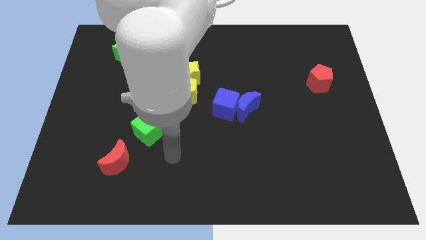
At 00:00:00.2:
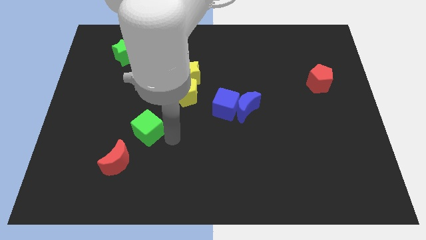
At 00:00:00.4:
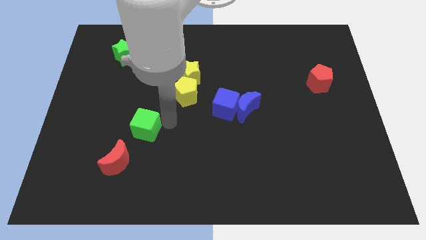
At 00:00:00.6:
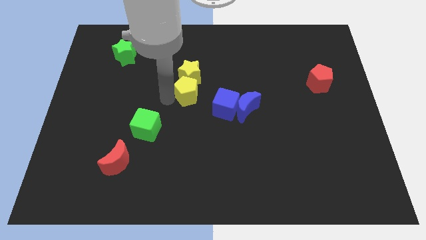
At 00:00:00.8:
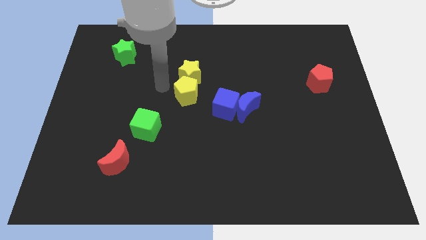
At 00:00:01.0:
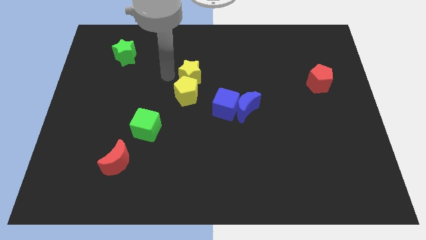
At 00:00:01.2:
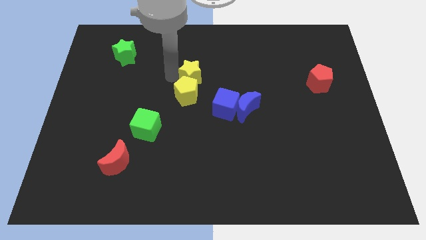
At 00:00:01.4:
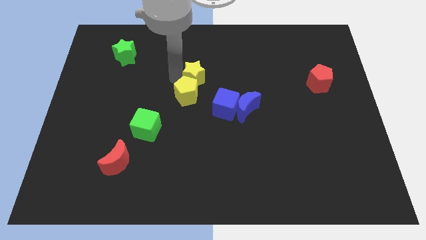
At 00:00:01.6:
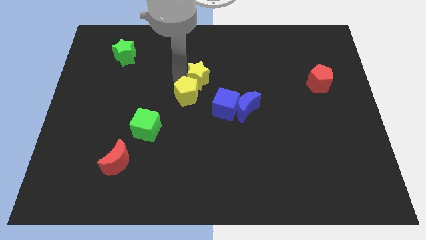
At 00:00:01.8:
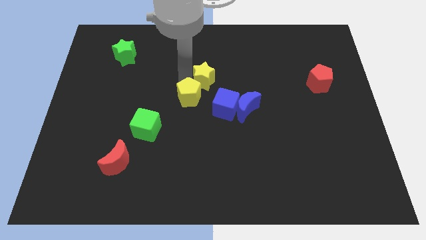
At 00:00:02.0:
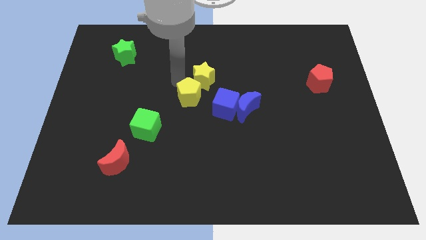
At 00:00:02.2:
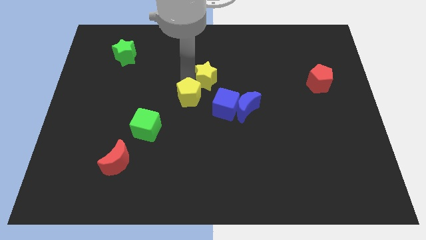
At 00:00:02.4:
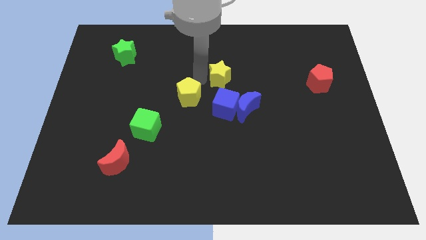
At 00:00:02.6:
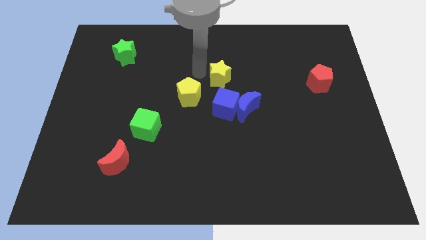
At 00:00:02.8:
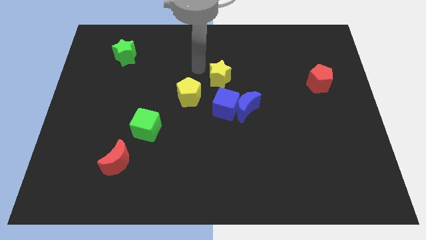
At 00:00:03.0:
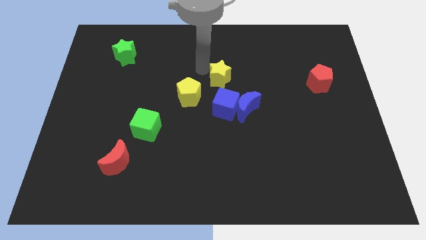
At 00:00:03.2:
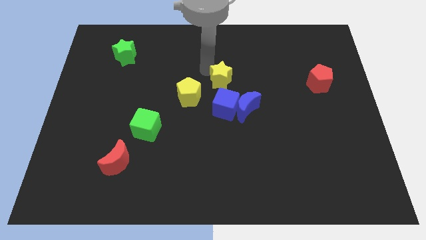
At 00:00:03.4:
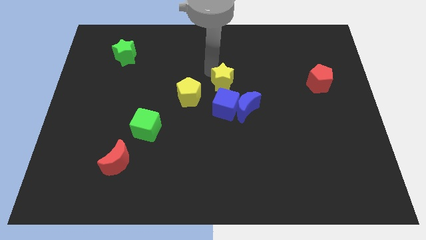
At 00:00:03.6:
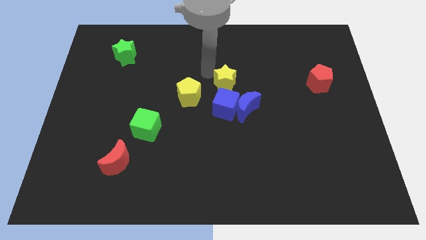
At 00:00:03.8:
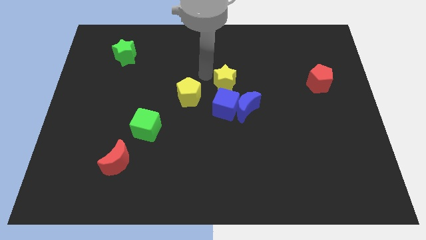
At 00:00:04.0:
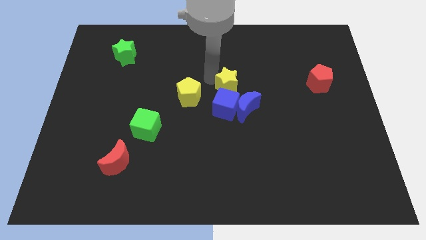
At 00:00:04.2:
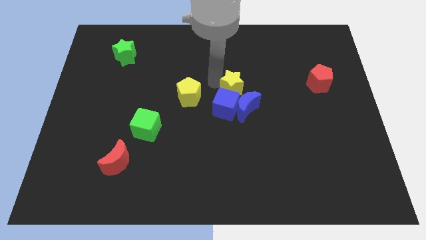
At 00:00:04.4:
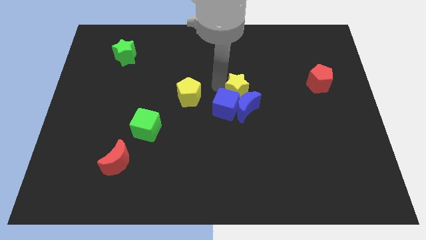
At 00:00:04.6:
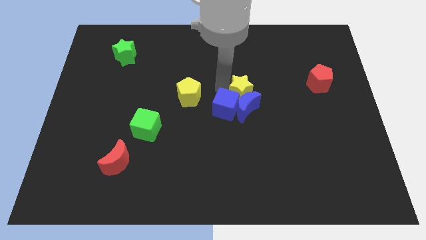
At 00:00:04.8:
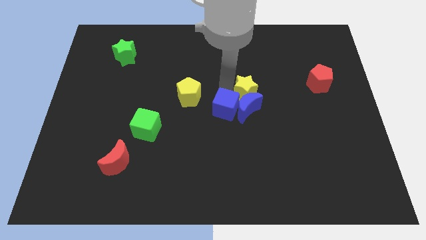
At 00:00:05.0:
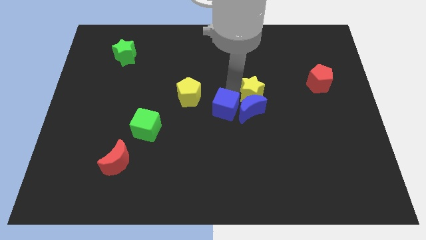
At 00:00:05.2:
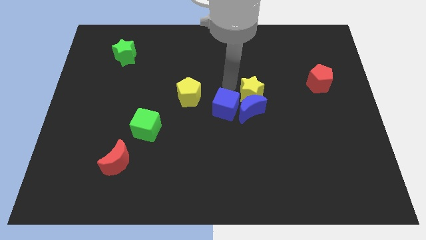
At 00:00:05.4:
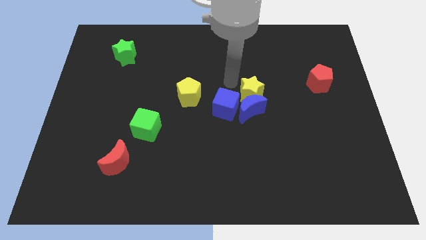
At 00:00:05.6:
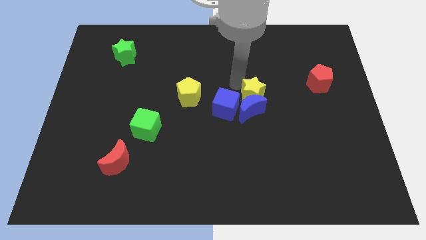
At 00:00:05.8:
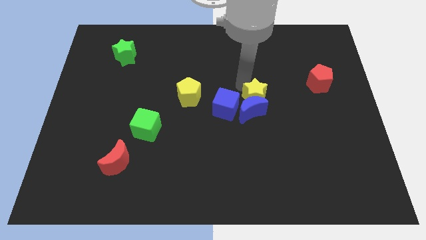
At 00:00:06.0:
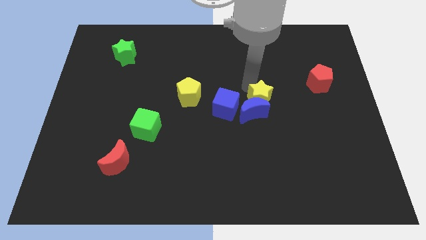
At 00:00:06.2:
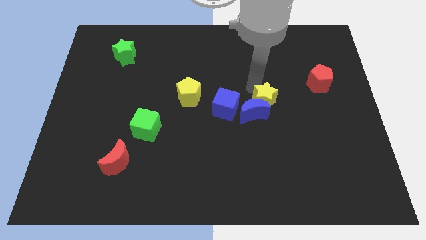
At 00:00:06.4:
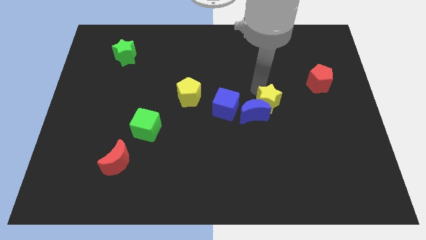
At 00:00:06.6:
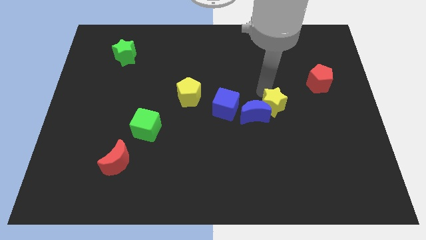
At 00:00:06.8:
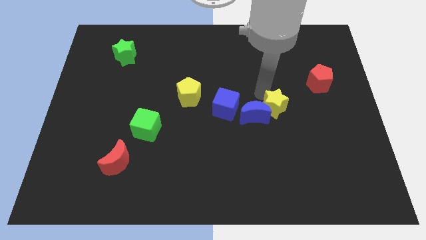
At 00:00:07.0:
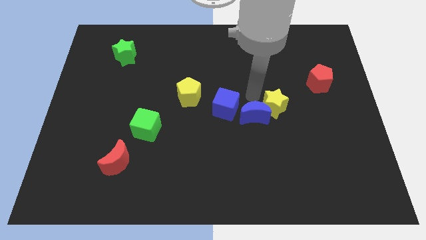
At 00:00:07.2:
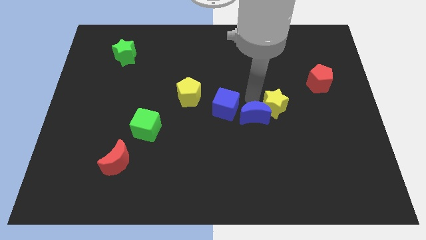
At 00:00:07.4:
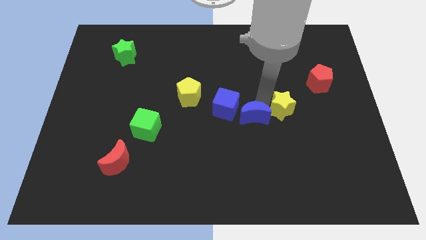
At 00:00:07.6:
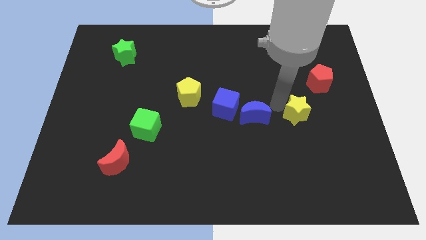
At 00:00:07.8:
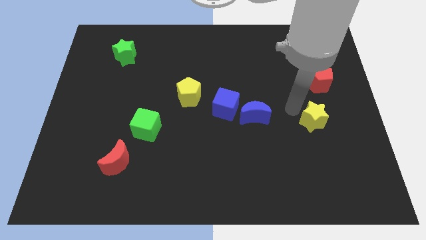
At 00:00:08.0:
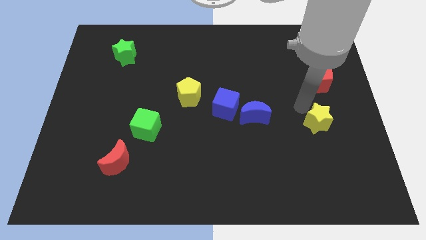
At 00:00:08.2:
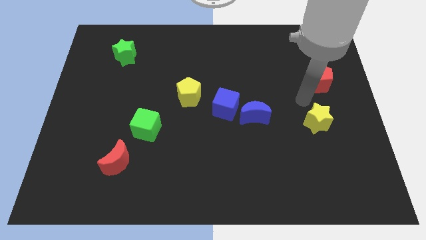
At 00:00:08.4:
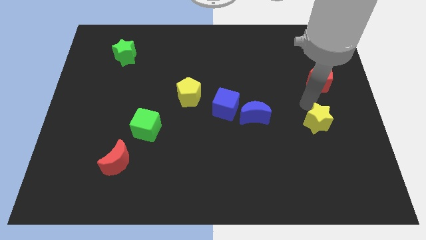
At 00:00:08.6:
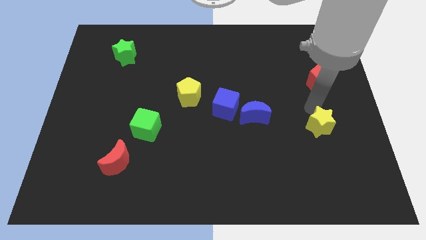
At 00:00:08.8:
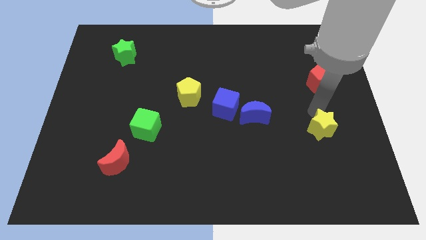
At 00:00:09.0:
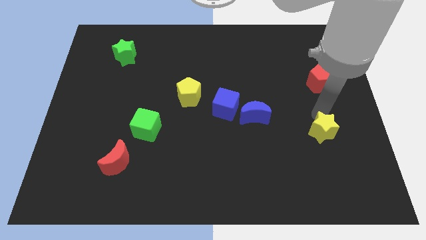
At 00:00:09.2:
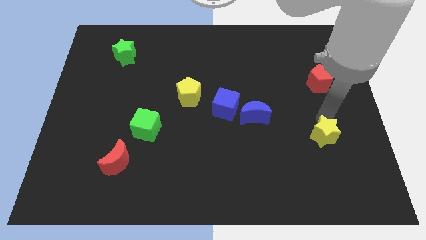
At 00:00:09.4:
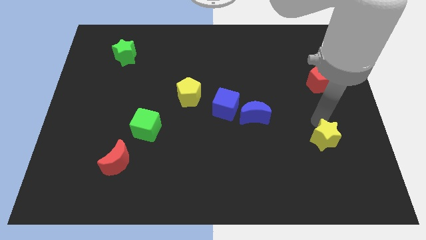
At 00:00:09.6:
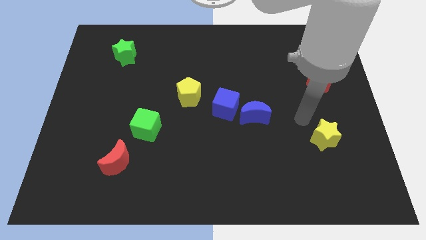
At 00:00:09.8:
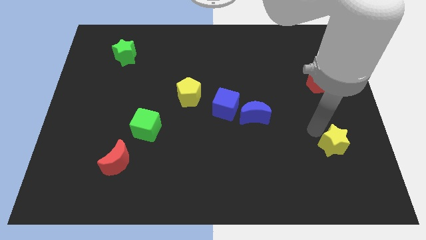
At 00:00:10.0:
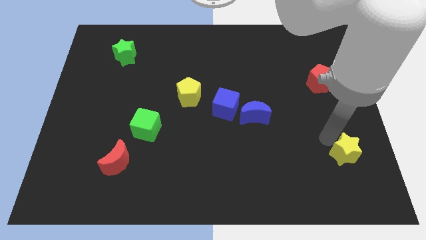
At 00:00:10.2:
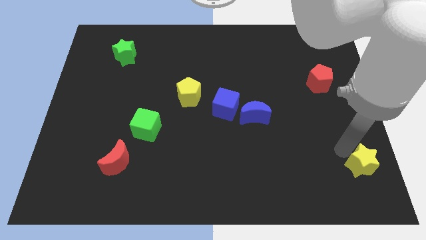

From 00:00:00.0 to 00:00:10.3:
put the yellow star to the bottom right

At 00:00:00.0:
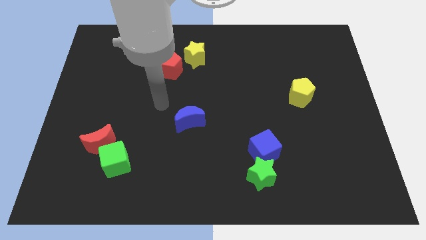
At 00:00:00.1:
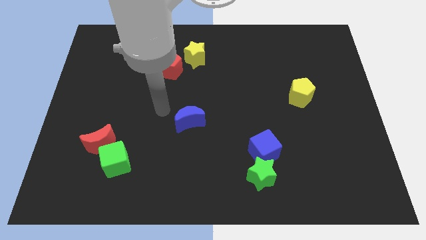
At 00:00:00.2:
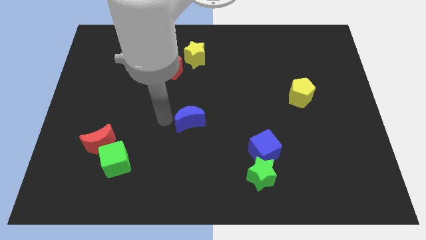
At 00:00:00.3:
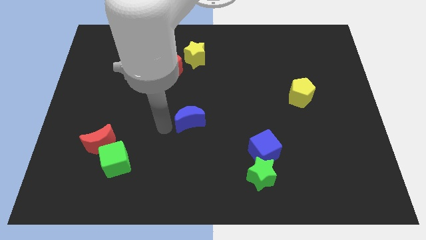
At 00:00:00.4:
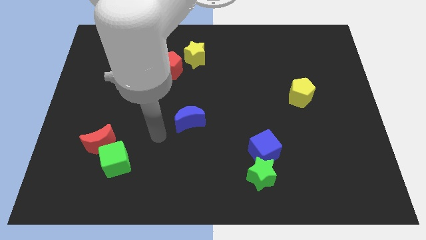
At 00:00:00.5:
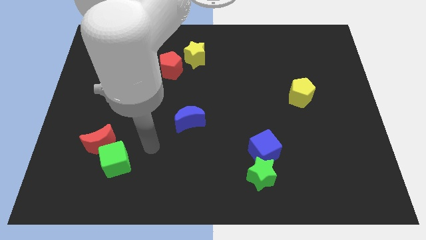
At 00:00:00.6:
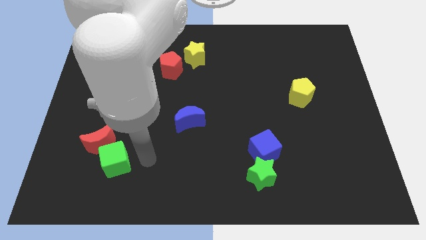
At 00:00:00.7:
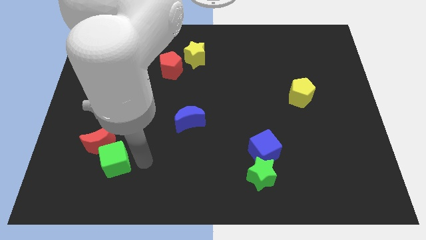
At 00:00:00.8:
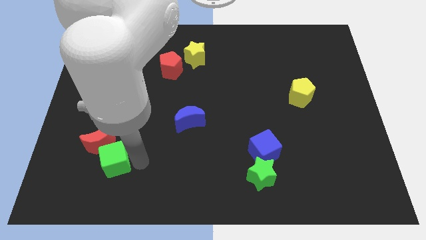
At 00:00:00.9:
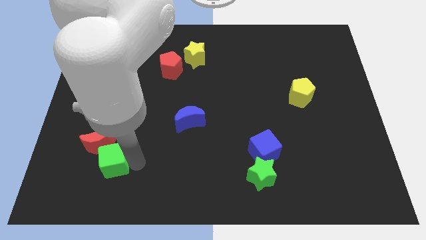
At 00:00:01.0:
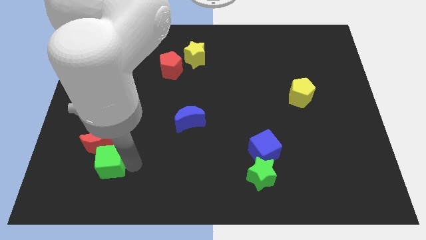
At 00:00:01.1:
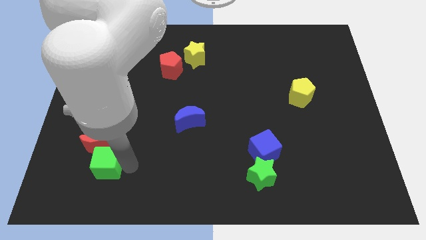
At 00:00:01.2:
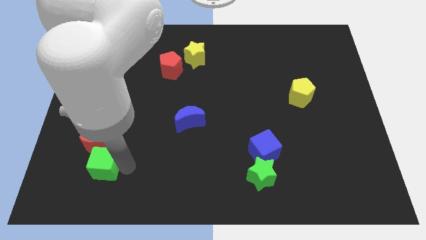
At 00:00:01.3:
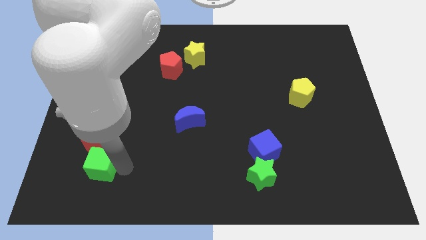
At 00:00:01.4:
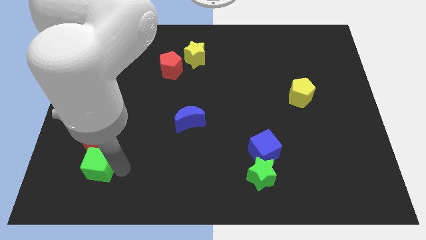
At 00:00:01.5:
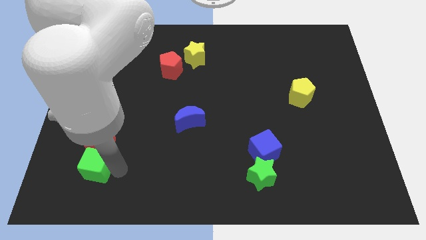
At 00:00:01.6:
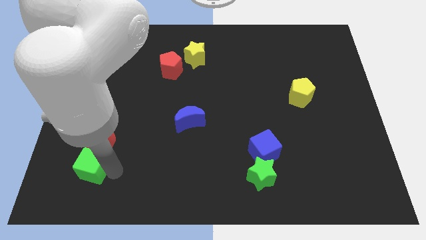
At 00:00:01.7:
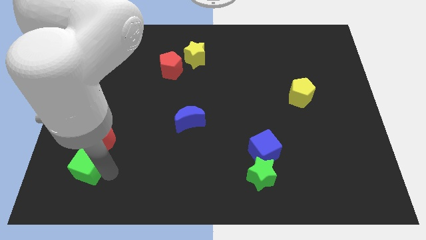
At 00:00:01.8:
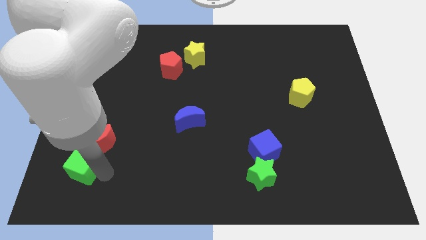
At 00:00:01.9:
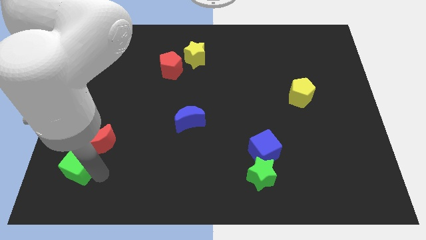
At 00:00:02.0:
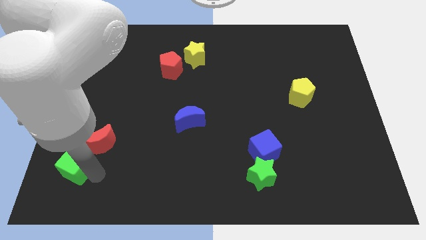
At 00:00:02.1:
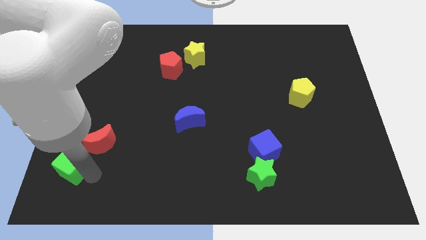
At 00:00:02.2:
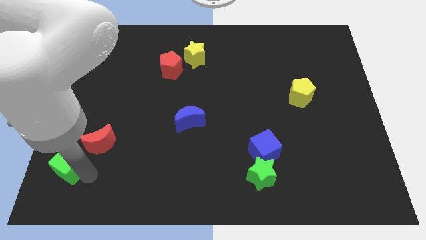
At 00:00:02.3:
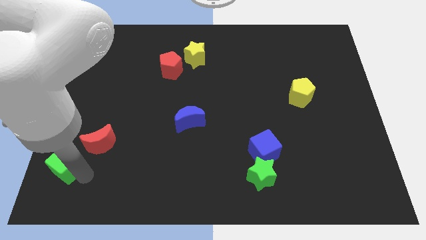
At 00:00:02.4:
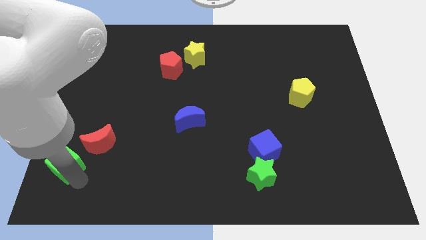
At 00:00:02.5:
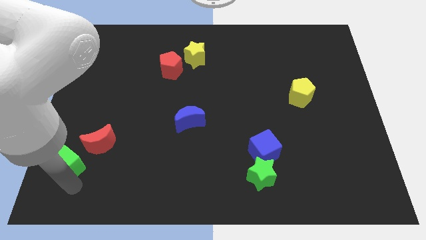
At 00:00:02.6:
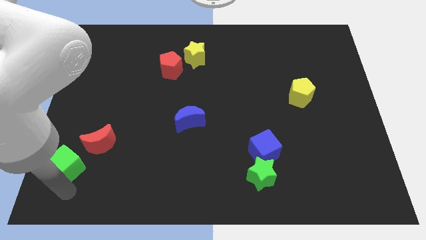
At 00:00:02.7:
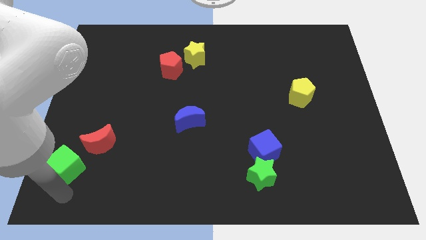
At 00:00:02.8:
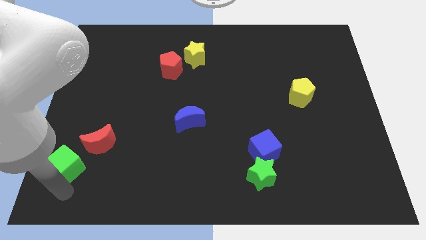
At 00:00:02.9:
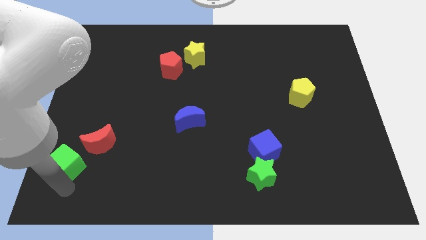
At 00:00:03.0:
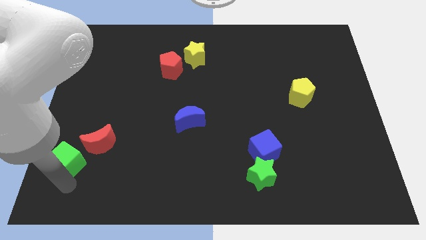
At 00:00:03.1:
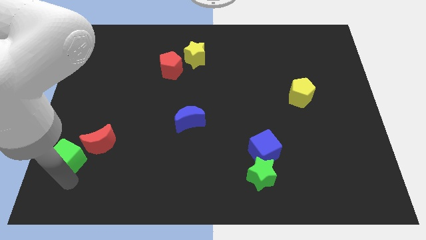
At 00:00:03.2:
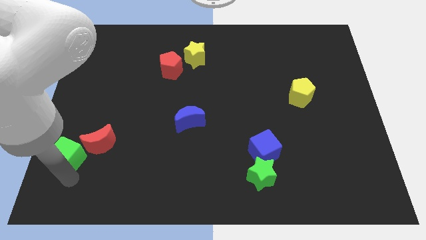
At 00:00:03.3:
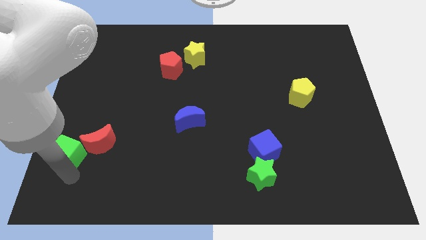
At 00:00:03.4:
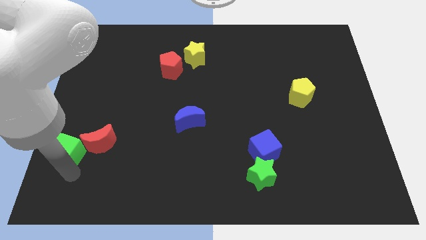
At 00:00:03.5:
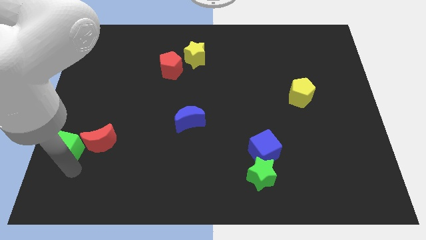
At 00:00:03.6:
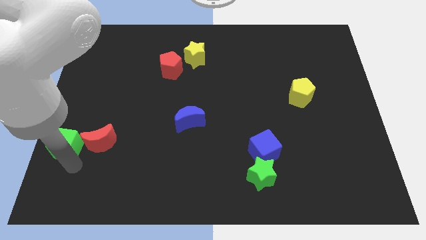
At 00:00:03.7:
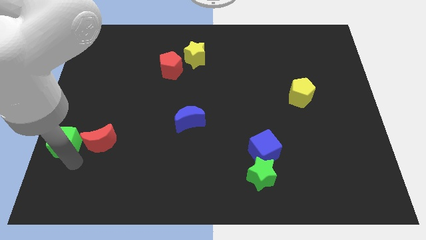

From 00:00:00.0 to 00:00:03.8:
push the green cube to the left side
